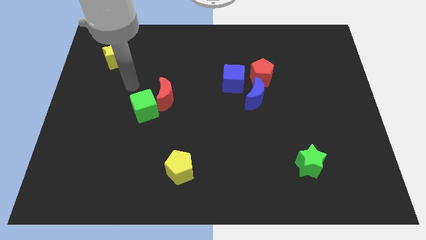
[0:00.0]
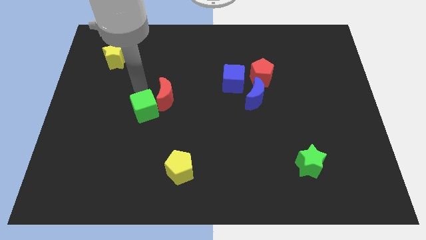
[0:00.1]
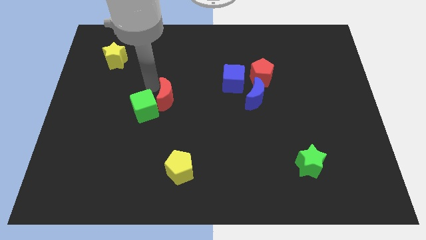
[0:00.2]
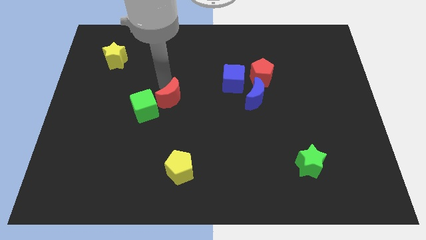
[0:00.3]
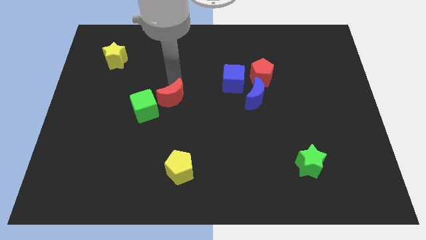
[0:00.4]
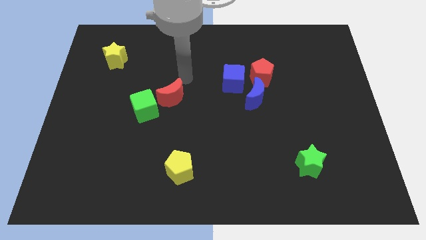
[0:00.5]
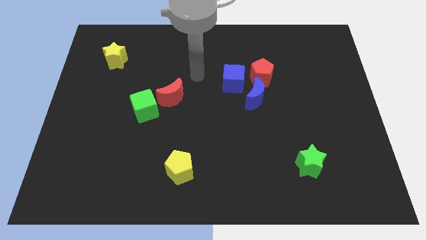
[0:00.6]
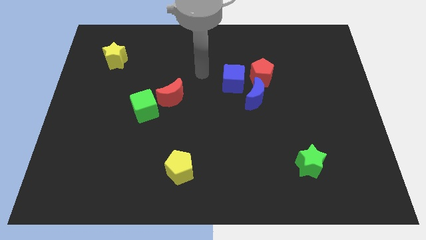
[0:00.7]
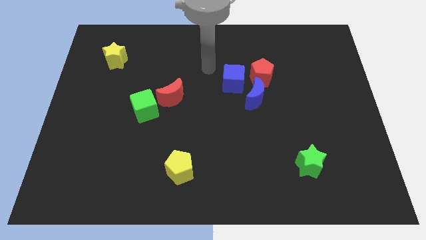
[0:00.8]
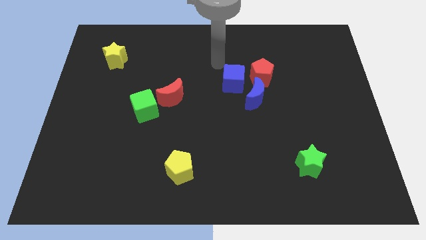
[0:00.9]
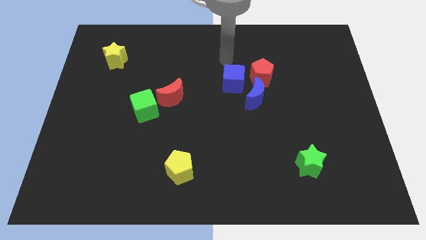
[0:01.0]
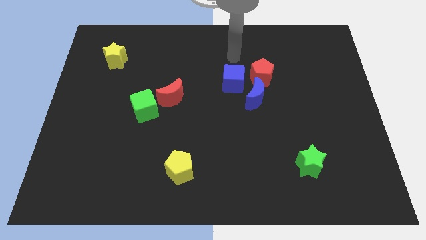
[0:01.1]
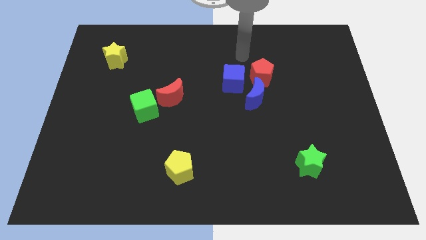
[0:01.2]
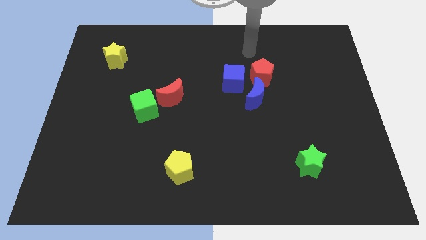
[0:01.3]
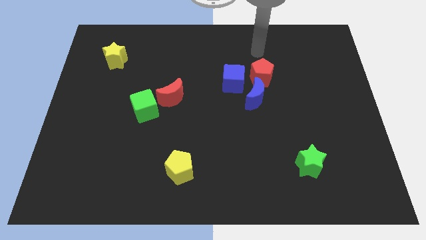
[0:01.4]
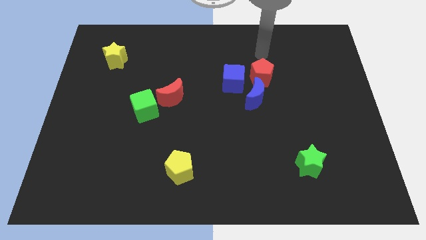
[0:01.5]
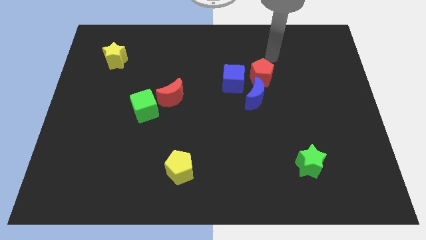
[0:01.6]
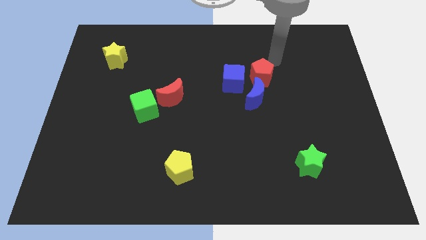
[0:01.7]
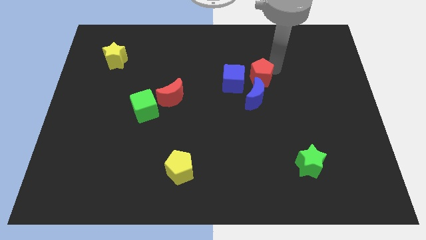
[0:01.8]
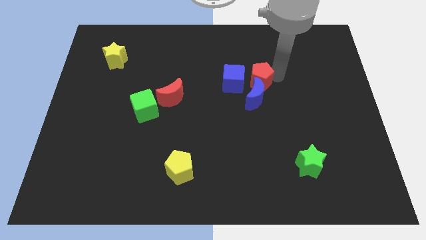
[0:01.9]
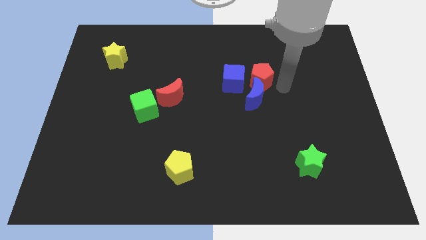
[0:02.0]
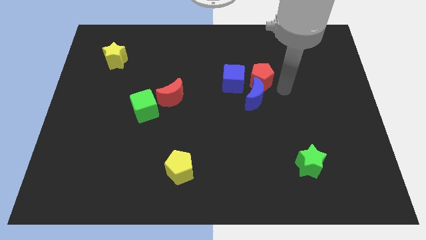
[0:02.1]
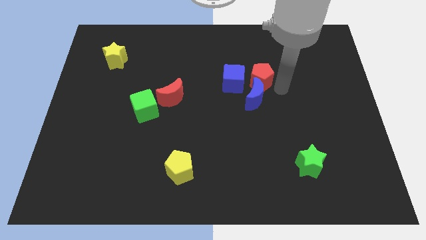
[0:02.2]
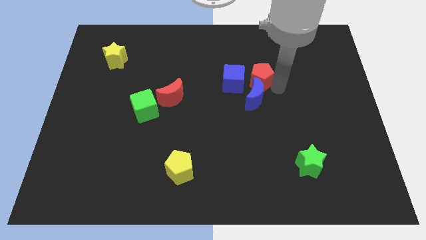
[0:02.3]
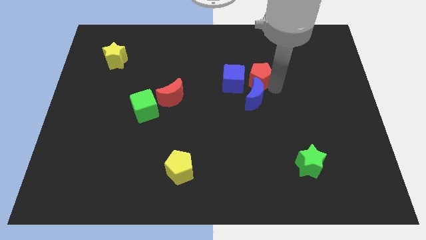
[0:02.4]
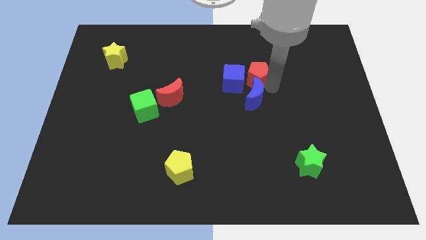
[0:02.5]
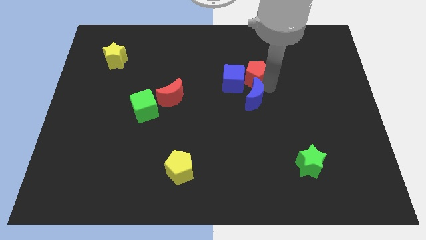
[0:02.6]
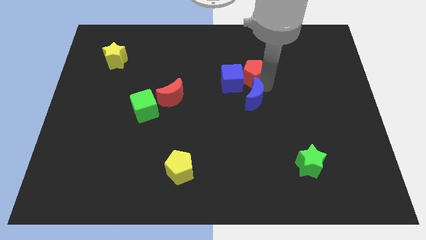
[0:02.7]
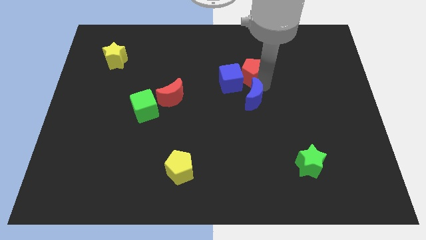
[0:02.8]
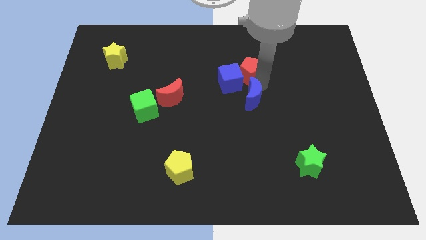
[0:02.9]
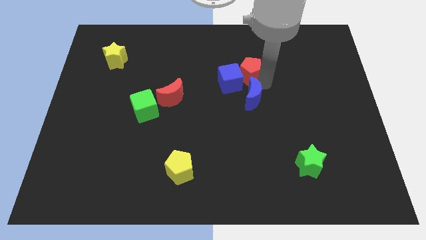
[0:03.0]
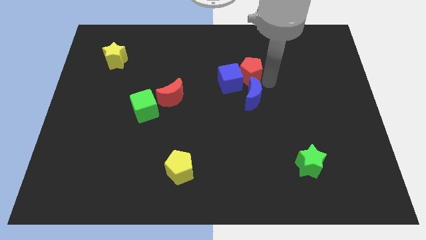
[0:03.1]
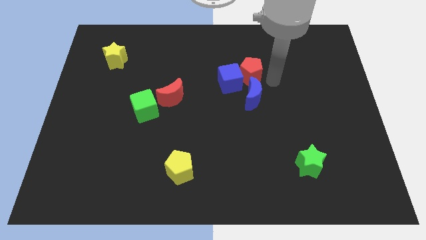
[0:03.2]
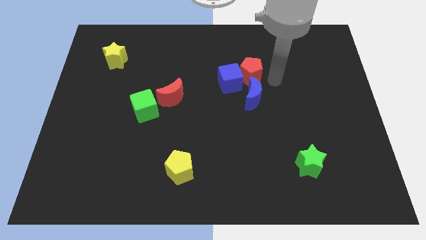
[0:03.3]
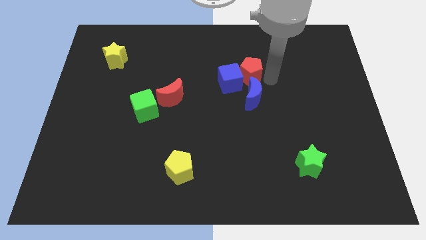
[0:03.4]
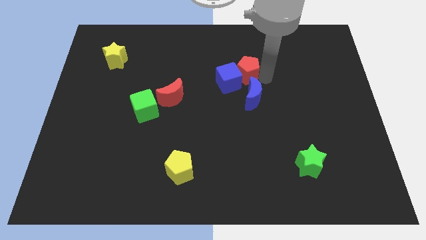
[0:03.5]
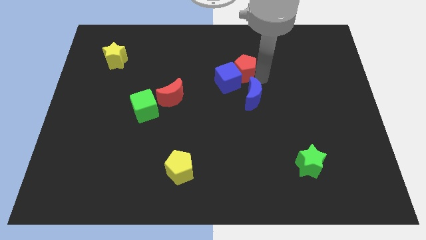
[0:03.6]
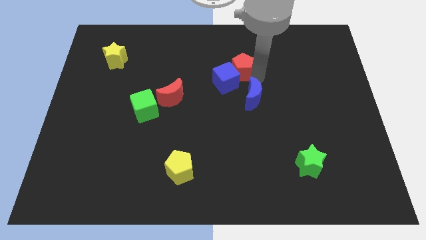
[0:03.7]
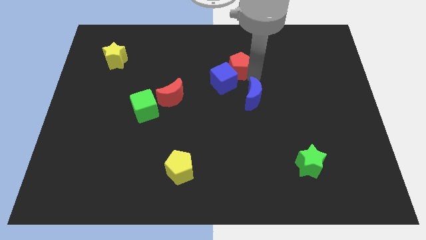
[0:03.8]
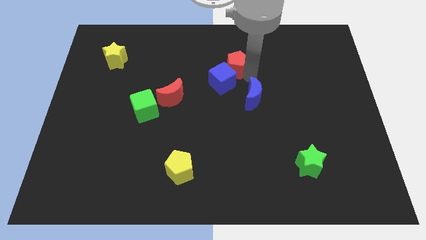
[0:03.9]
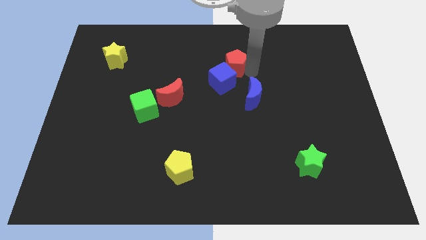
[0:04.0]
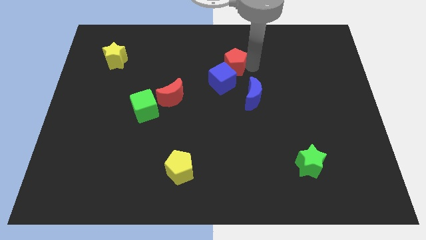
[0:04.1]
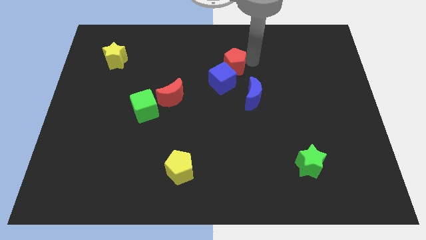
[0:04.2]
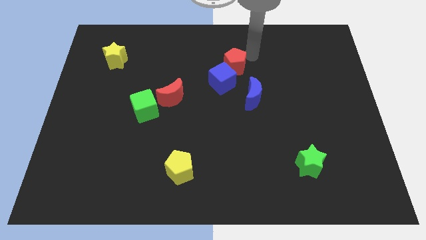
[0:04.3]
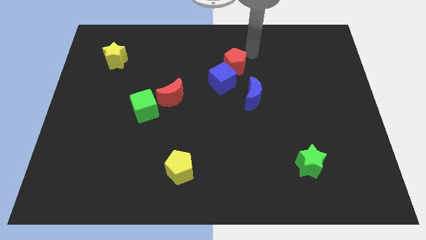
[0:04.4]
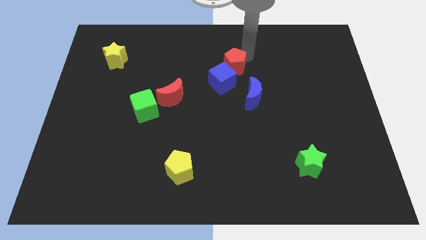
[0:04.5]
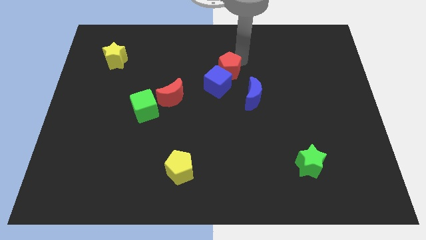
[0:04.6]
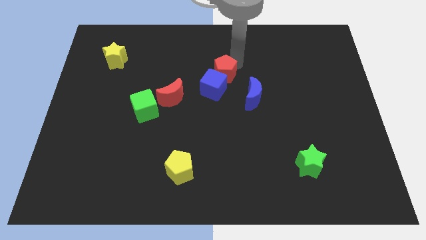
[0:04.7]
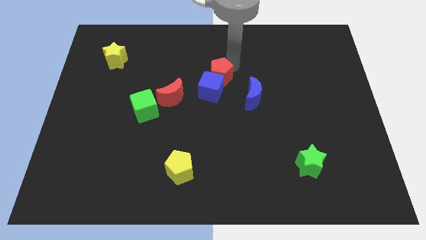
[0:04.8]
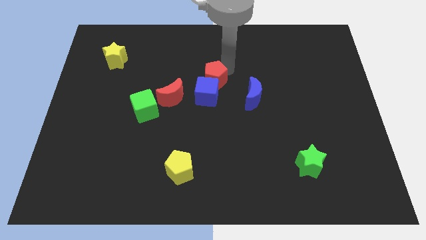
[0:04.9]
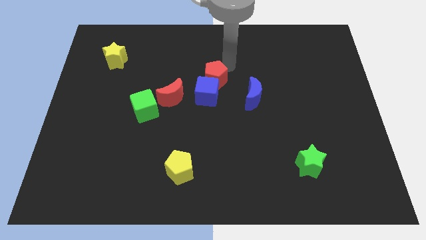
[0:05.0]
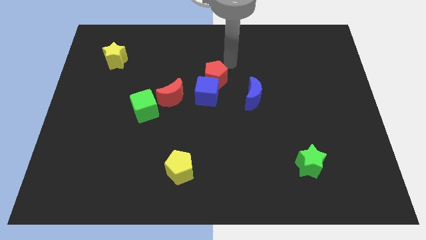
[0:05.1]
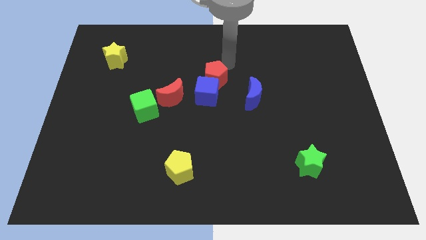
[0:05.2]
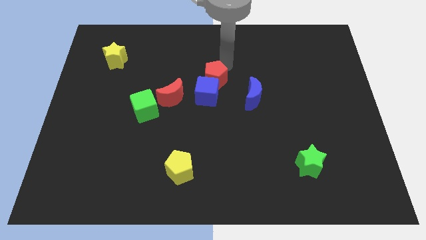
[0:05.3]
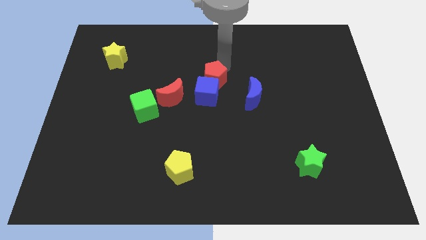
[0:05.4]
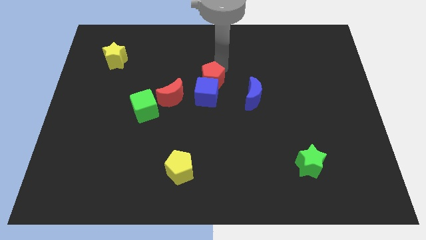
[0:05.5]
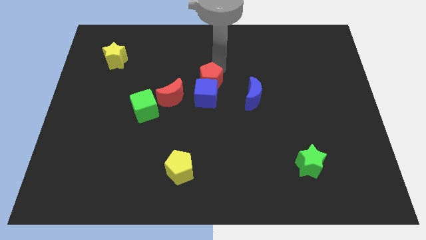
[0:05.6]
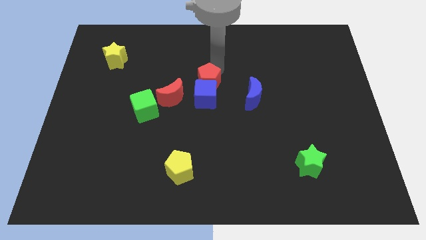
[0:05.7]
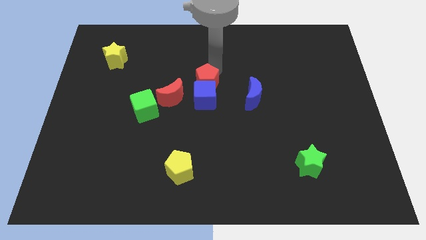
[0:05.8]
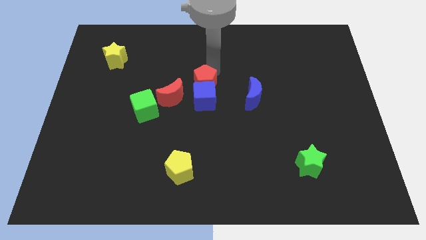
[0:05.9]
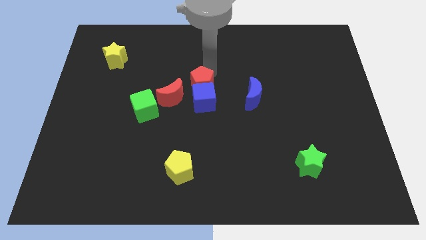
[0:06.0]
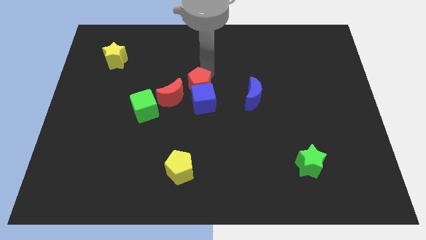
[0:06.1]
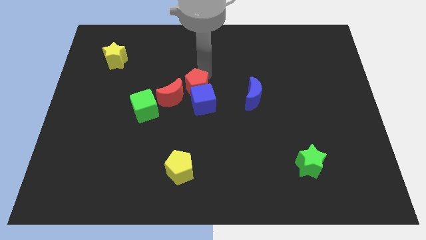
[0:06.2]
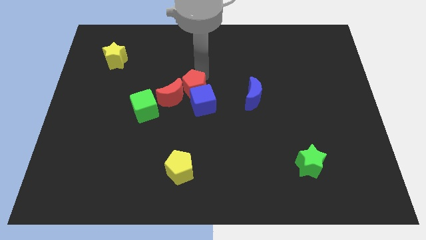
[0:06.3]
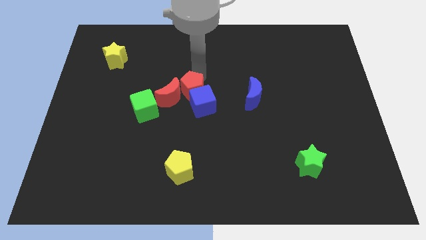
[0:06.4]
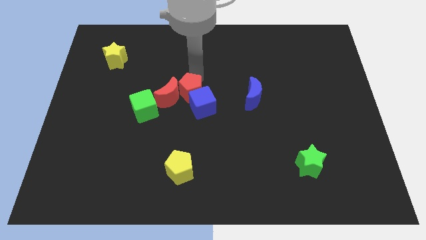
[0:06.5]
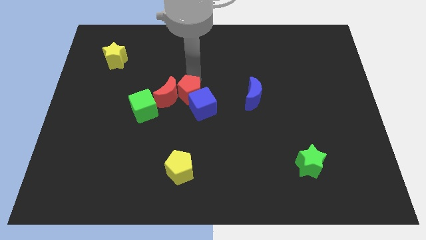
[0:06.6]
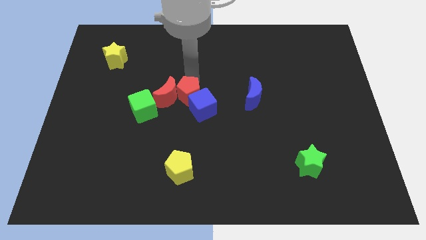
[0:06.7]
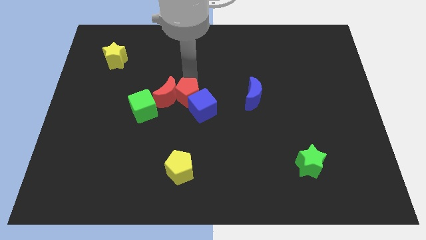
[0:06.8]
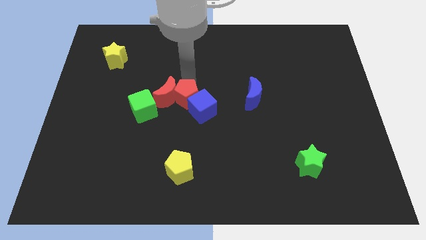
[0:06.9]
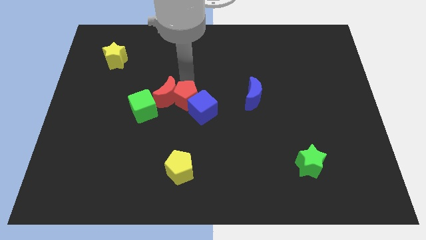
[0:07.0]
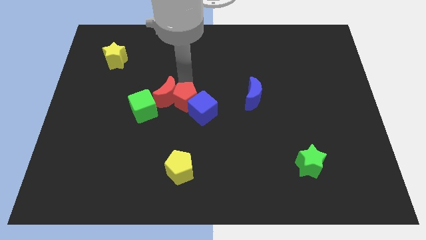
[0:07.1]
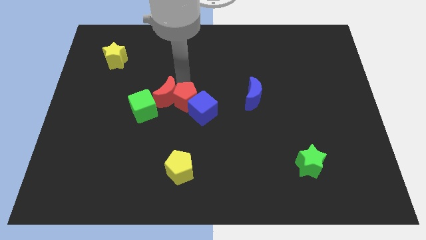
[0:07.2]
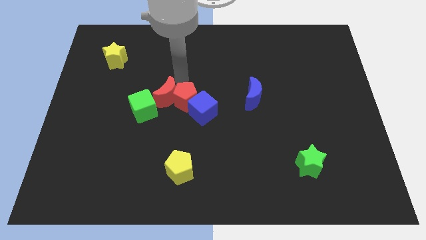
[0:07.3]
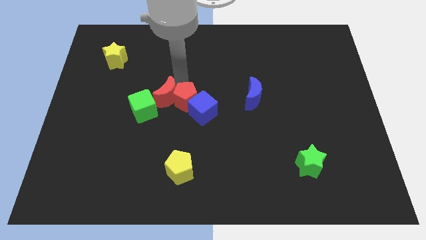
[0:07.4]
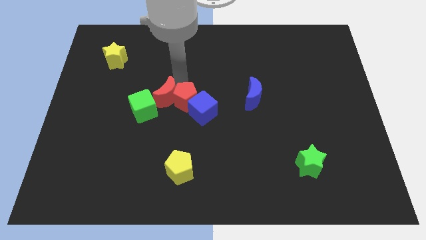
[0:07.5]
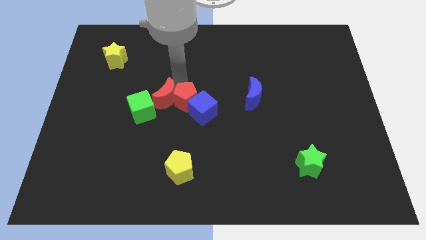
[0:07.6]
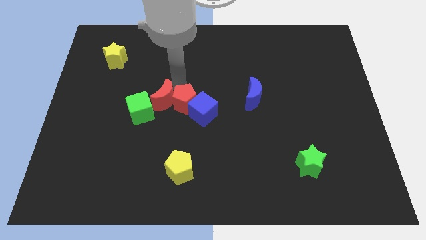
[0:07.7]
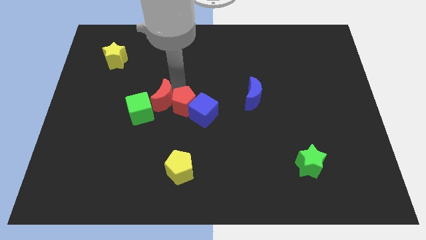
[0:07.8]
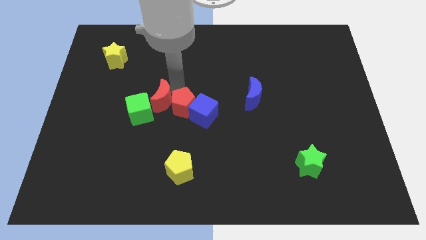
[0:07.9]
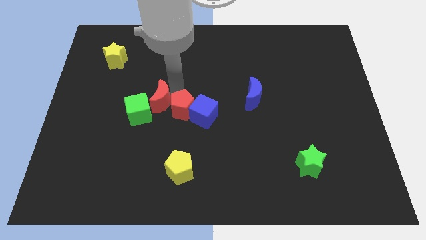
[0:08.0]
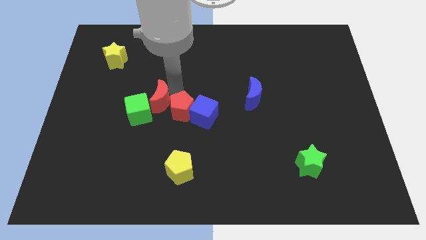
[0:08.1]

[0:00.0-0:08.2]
move the red pentagon diagonally downwards and to the left
